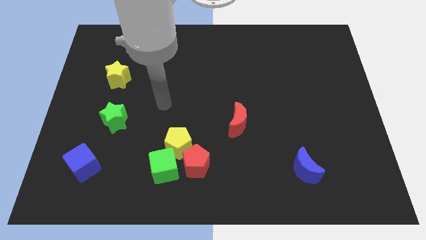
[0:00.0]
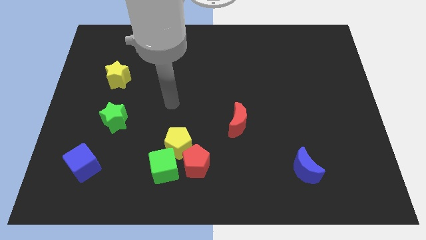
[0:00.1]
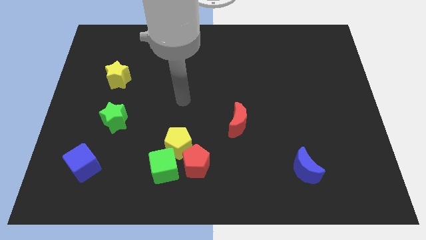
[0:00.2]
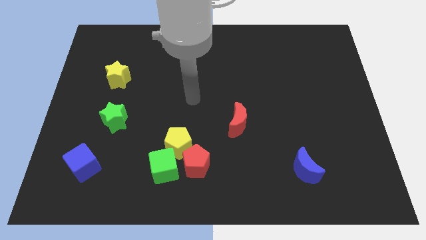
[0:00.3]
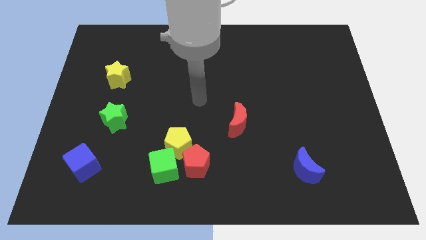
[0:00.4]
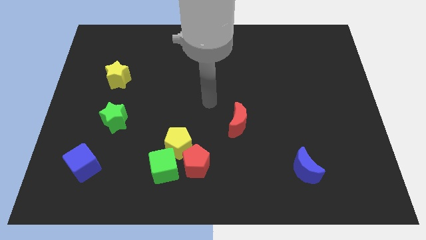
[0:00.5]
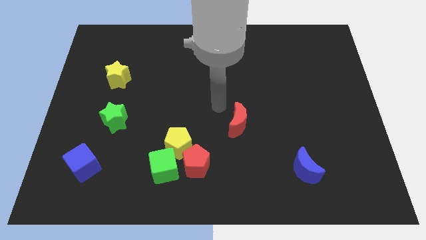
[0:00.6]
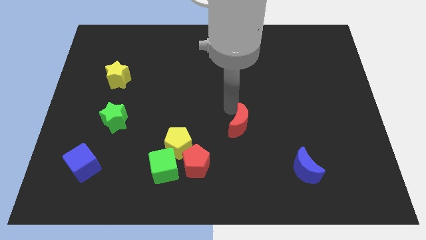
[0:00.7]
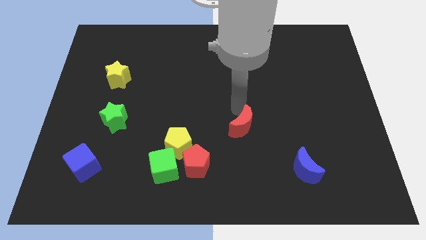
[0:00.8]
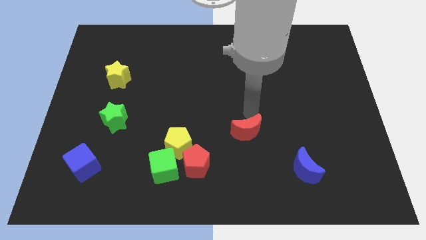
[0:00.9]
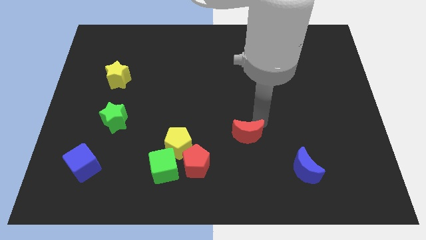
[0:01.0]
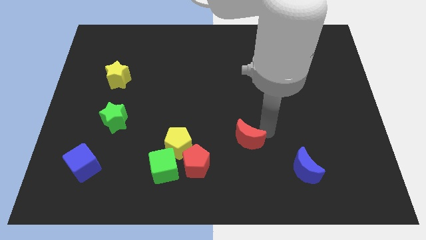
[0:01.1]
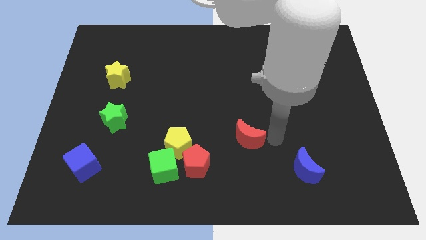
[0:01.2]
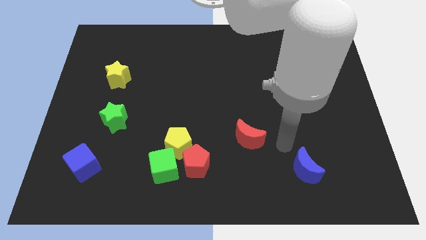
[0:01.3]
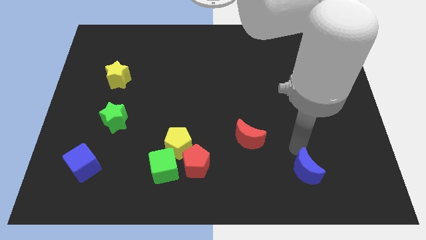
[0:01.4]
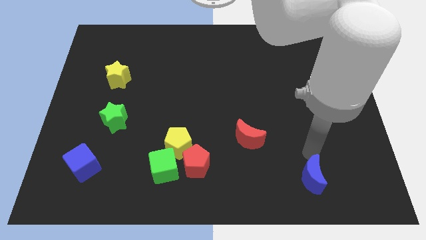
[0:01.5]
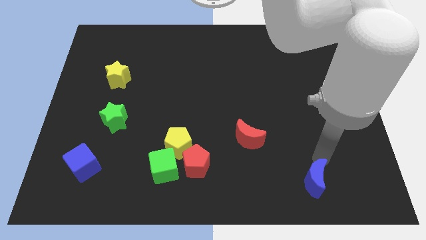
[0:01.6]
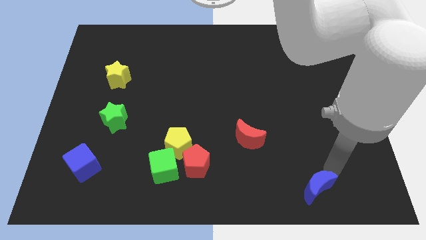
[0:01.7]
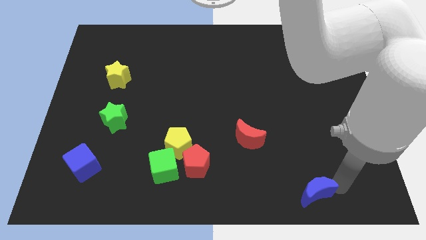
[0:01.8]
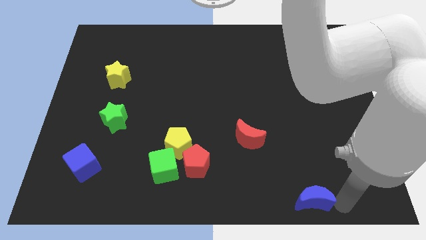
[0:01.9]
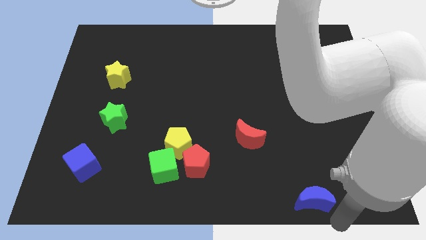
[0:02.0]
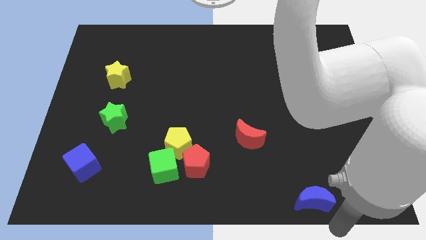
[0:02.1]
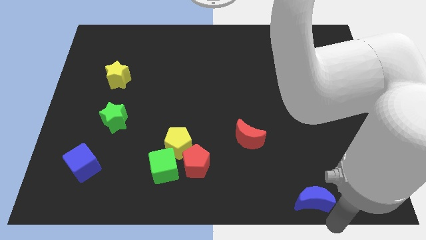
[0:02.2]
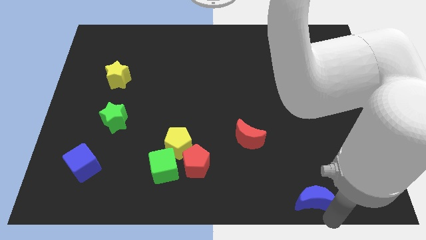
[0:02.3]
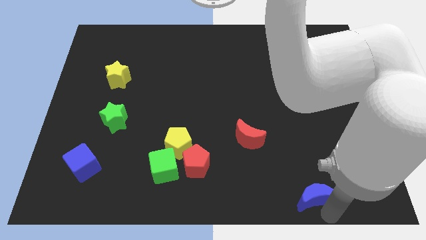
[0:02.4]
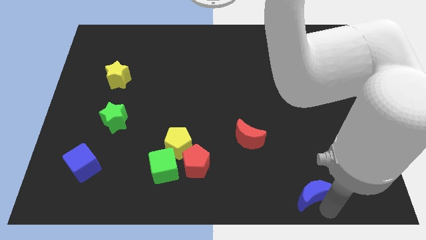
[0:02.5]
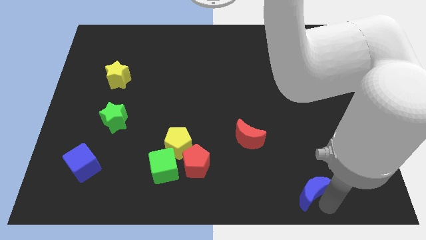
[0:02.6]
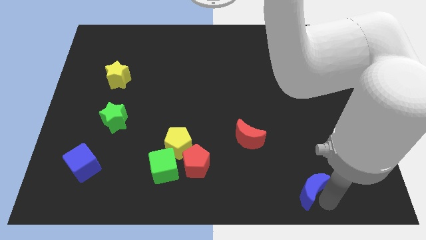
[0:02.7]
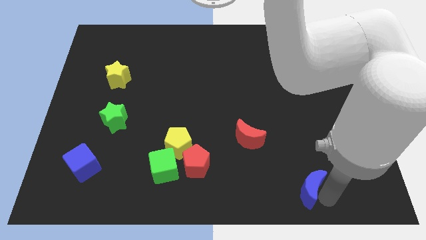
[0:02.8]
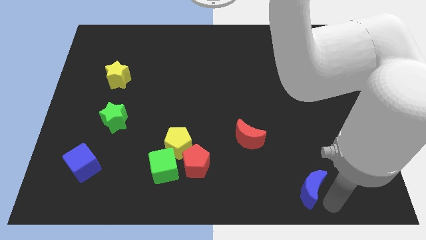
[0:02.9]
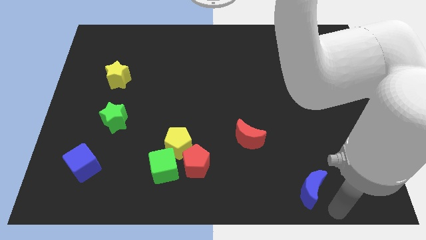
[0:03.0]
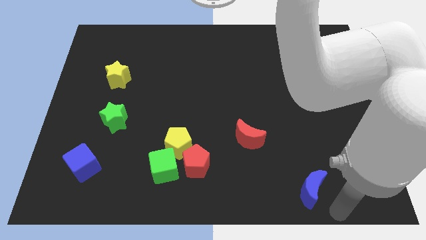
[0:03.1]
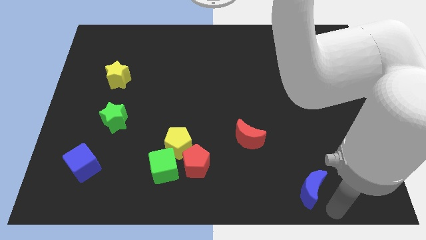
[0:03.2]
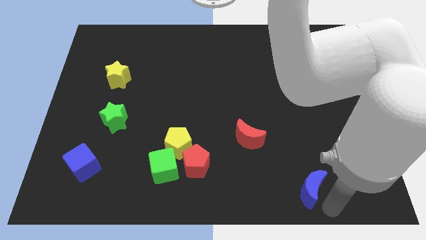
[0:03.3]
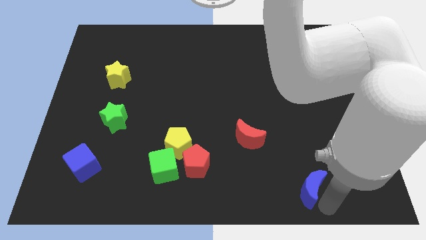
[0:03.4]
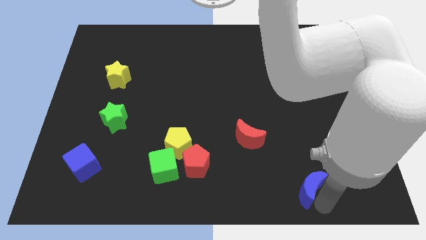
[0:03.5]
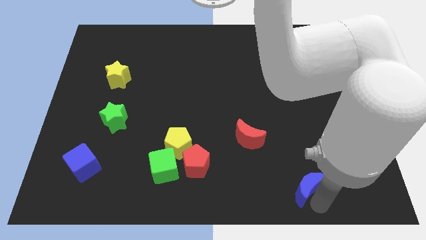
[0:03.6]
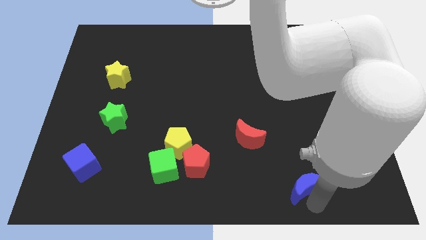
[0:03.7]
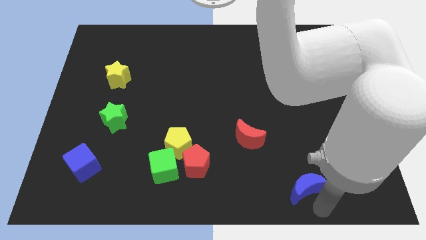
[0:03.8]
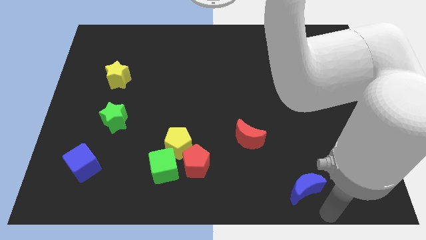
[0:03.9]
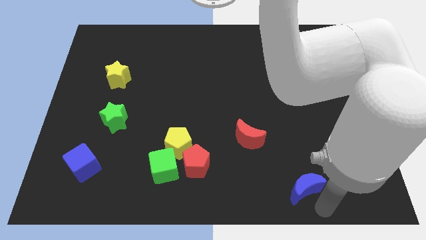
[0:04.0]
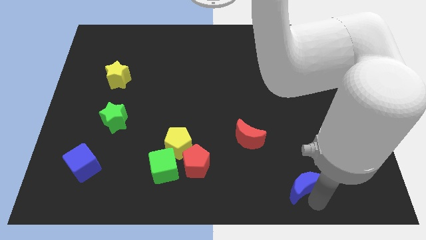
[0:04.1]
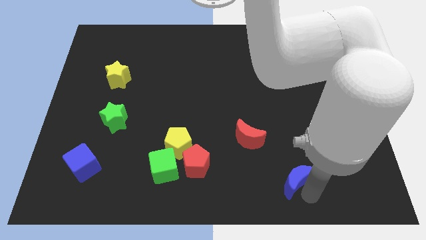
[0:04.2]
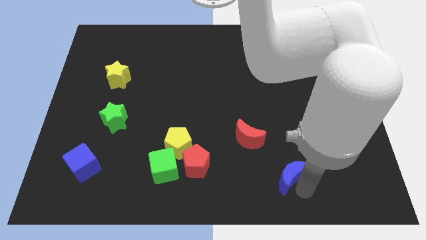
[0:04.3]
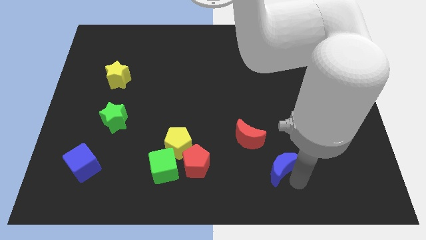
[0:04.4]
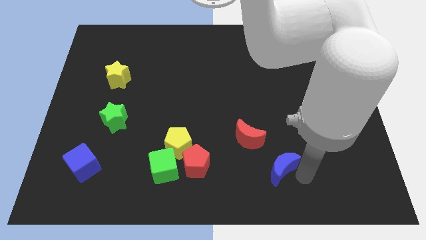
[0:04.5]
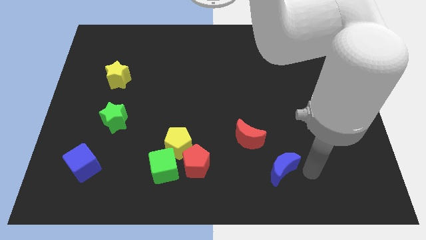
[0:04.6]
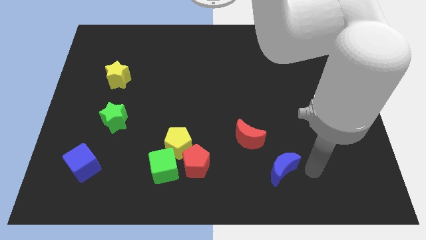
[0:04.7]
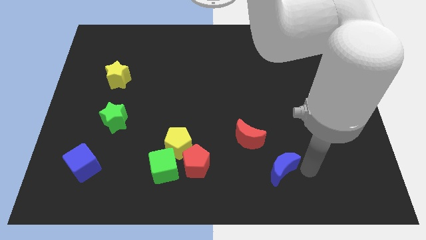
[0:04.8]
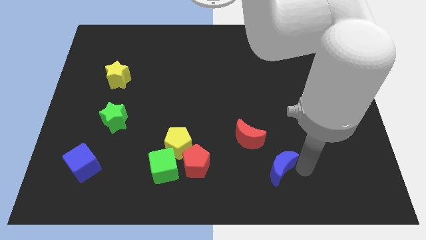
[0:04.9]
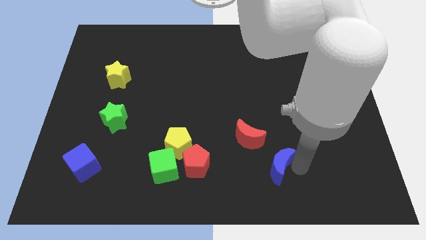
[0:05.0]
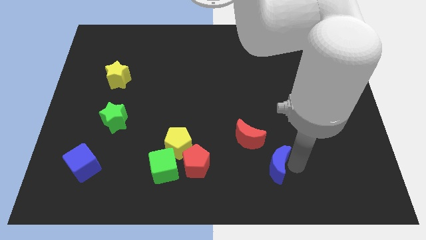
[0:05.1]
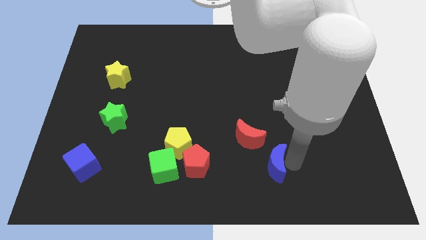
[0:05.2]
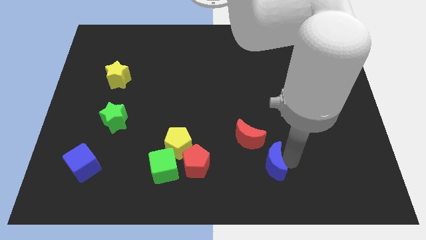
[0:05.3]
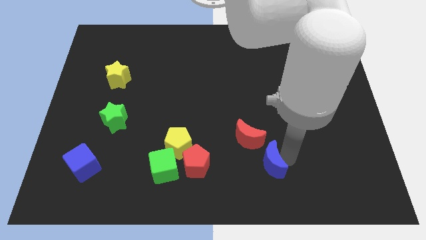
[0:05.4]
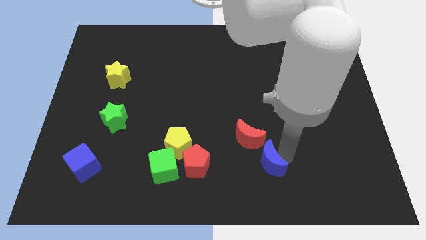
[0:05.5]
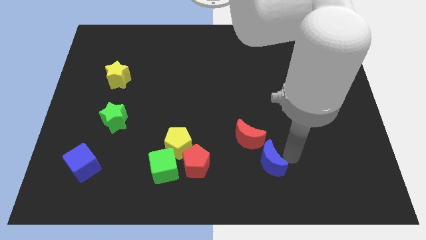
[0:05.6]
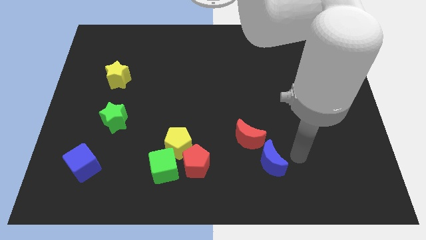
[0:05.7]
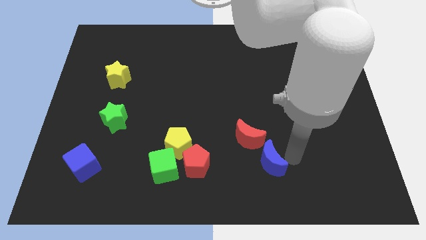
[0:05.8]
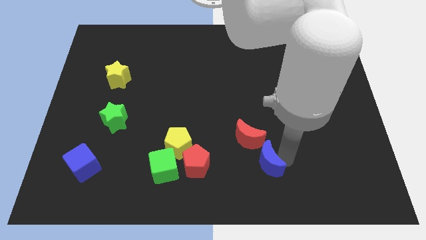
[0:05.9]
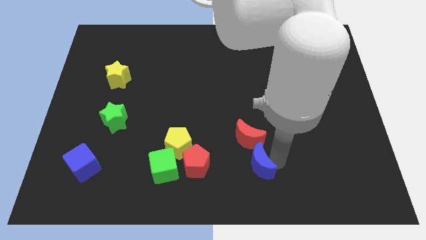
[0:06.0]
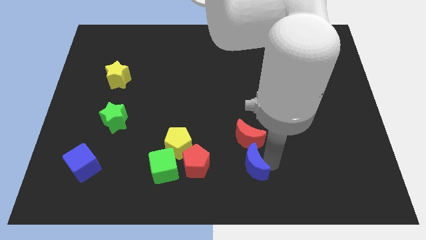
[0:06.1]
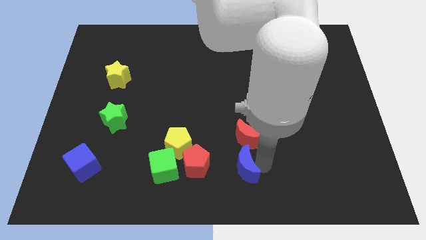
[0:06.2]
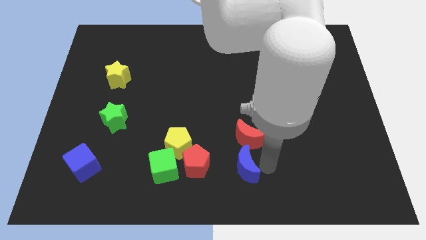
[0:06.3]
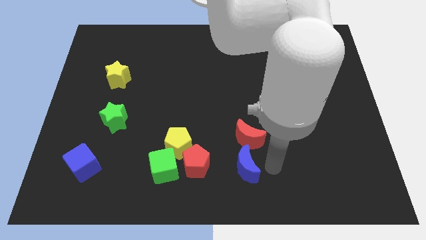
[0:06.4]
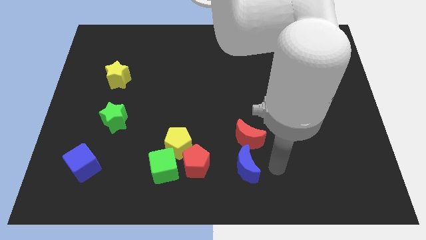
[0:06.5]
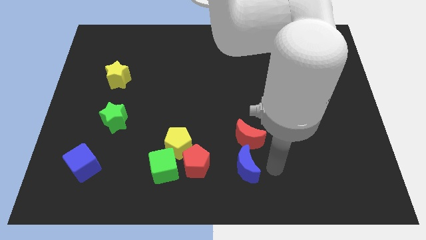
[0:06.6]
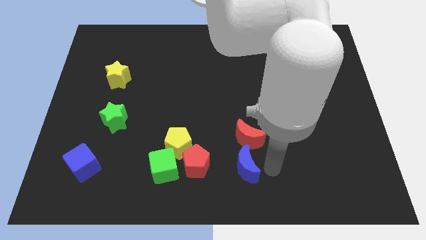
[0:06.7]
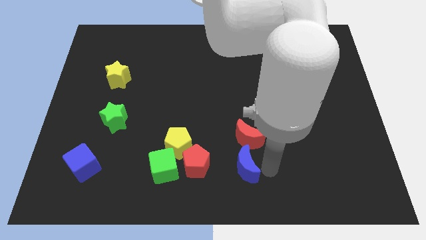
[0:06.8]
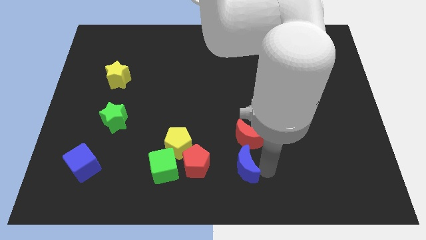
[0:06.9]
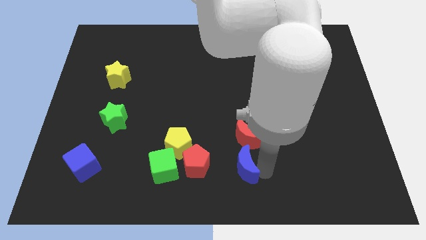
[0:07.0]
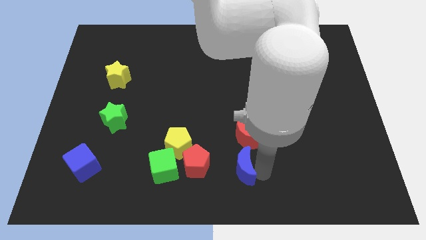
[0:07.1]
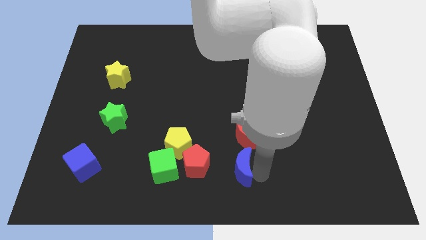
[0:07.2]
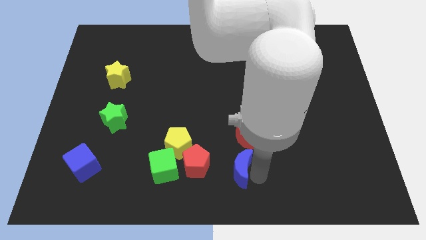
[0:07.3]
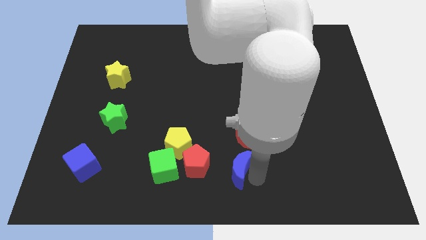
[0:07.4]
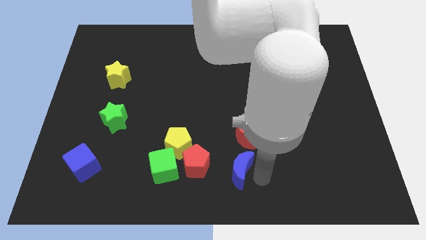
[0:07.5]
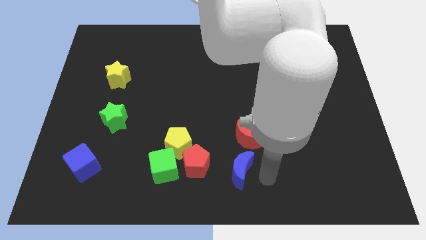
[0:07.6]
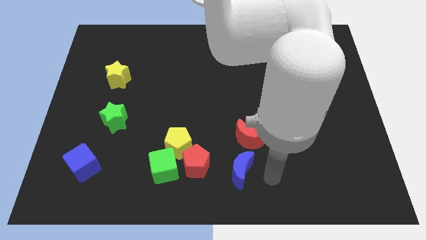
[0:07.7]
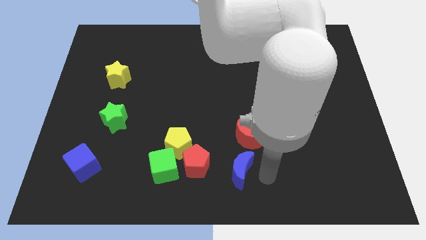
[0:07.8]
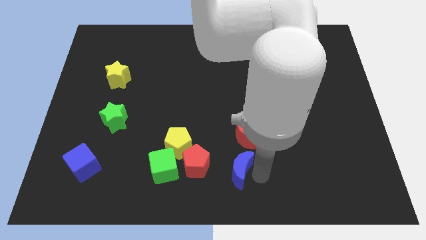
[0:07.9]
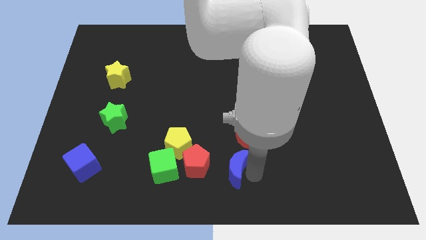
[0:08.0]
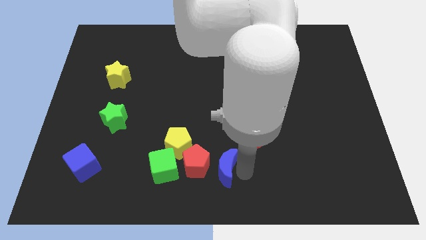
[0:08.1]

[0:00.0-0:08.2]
move the blue moon towards the red pentagon

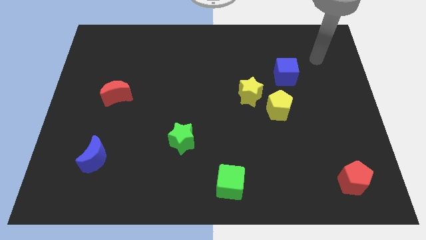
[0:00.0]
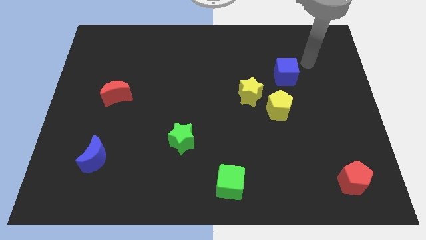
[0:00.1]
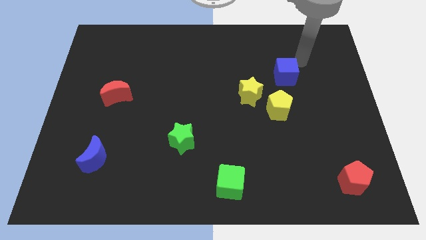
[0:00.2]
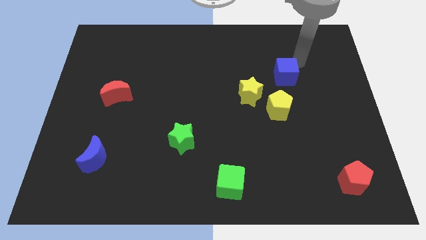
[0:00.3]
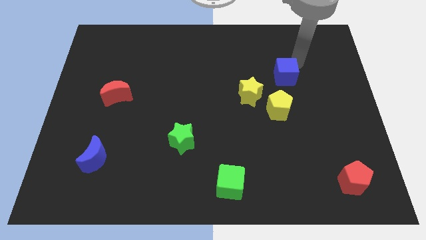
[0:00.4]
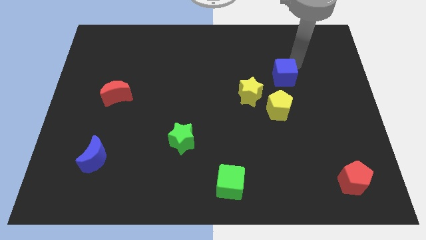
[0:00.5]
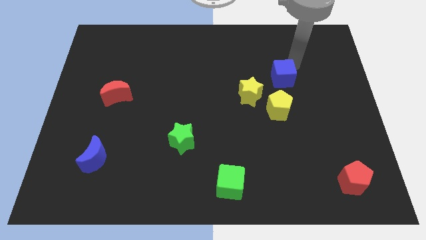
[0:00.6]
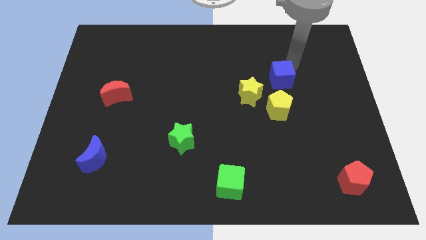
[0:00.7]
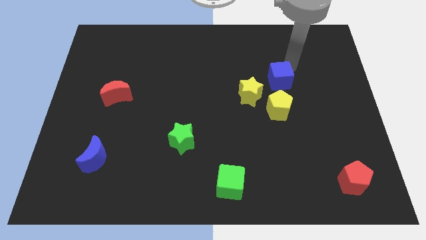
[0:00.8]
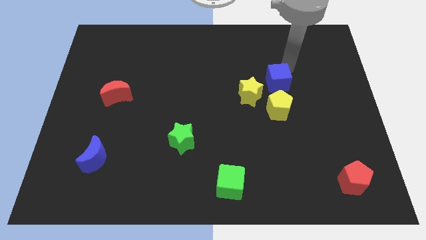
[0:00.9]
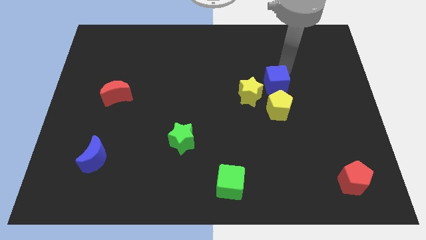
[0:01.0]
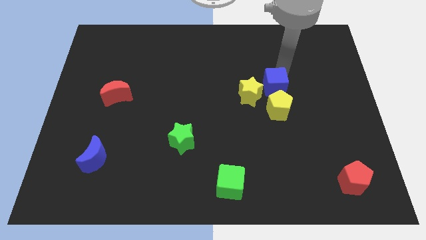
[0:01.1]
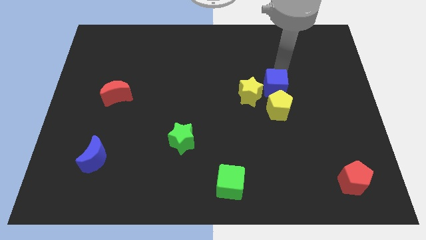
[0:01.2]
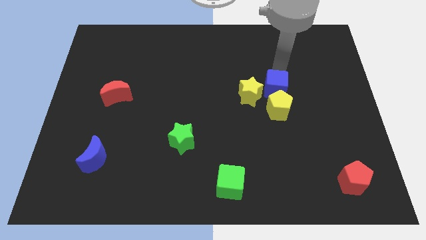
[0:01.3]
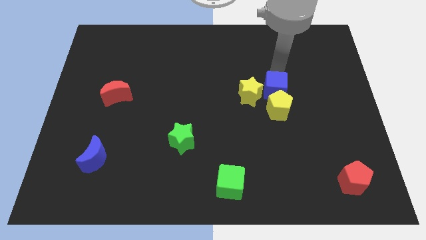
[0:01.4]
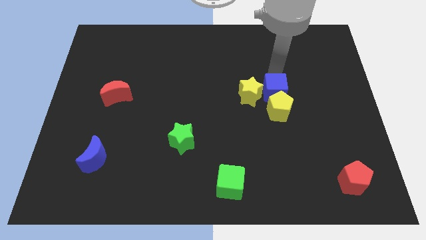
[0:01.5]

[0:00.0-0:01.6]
move the blue cube next to the yellow star
